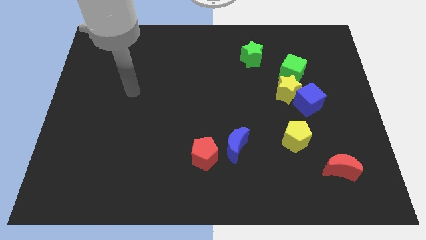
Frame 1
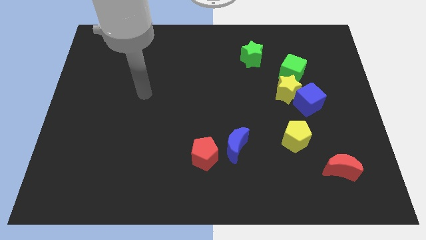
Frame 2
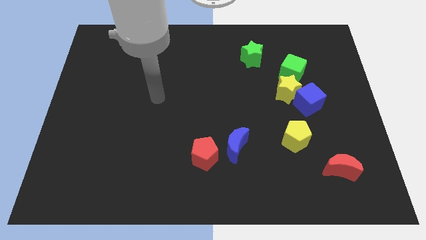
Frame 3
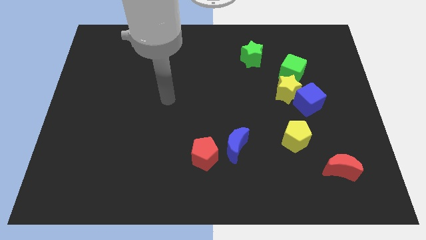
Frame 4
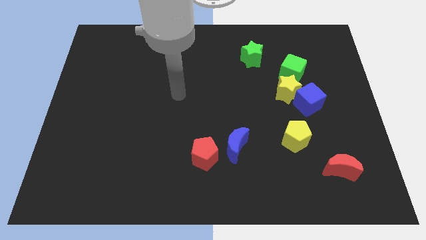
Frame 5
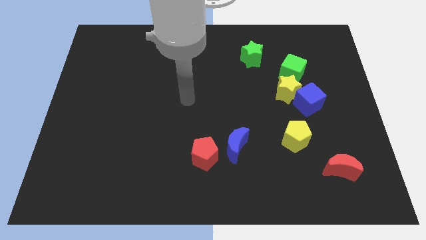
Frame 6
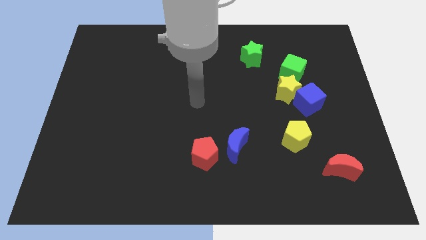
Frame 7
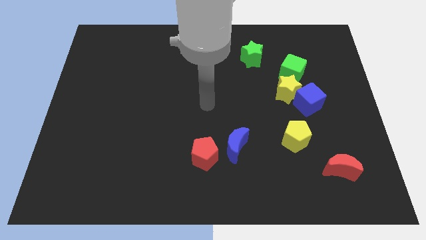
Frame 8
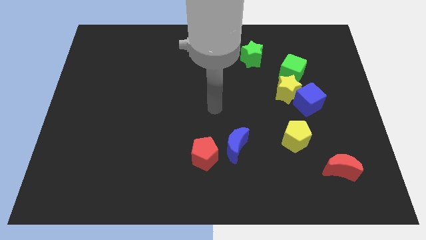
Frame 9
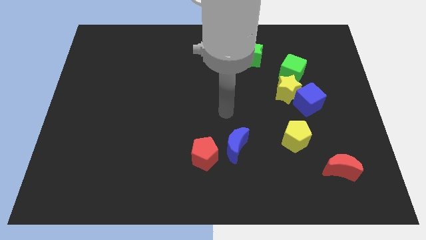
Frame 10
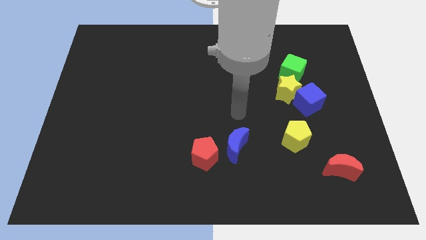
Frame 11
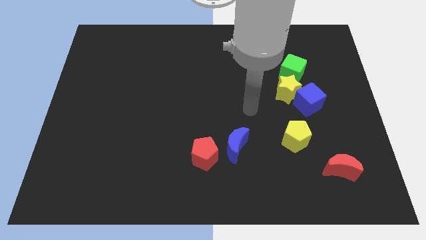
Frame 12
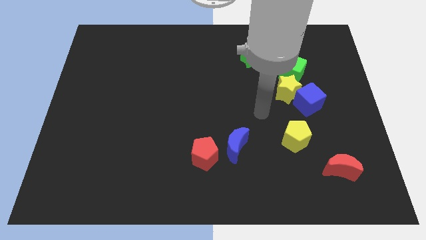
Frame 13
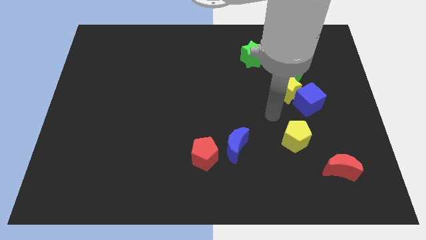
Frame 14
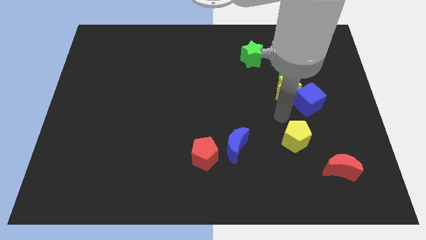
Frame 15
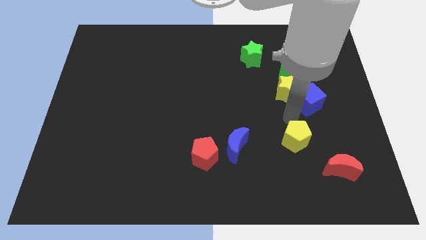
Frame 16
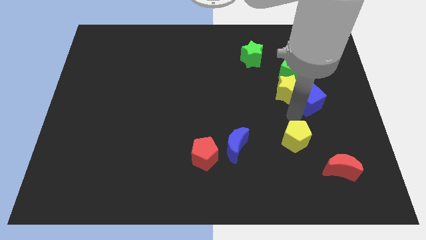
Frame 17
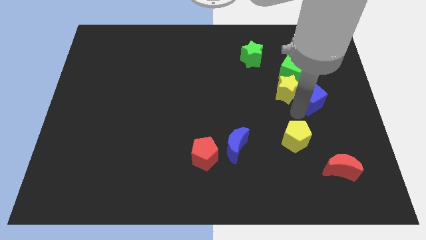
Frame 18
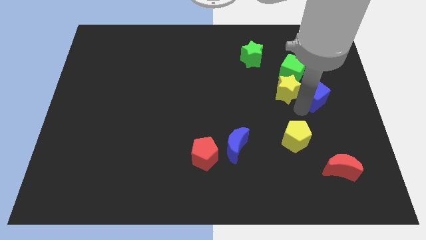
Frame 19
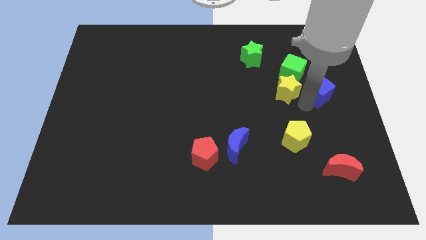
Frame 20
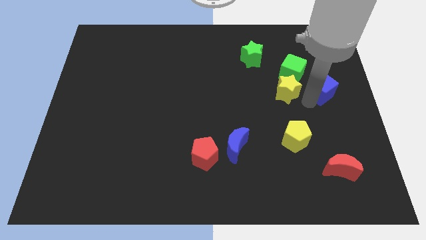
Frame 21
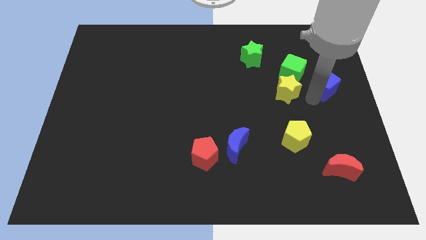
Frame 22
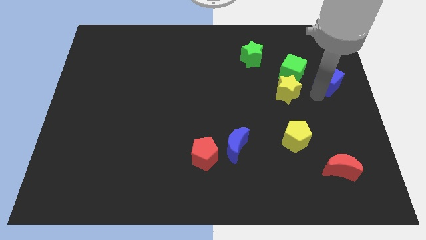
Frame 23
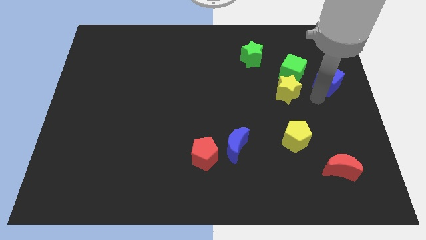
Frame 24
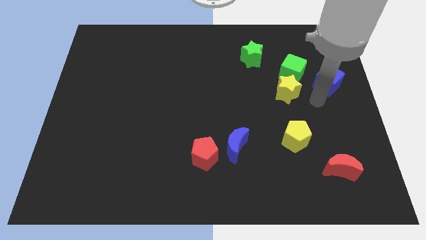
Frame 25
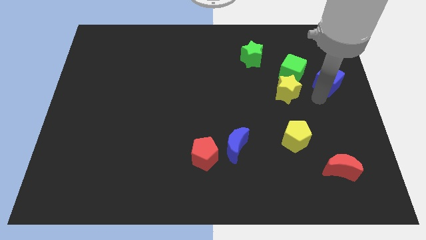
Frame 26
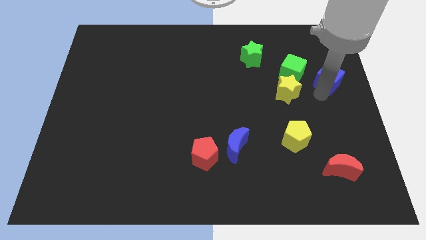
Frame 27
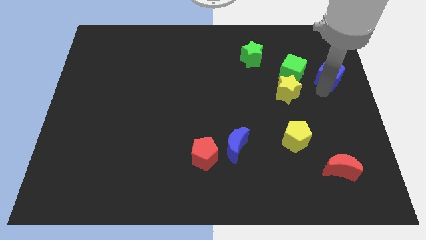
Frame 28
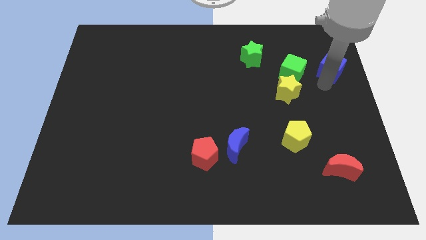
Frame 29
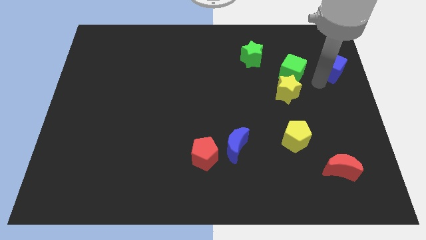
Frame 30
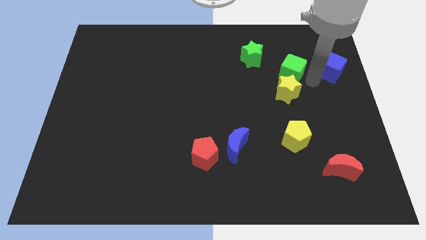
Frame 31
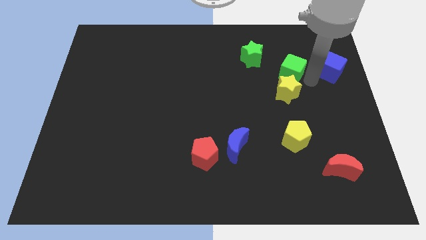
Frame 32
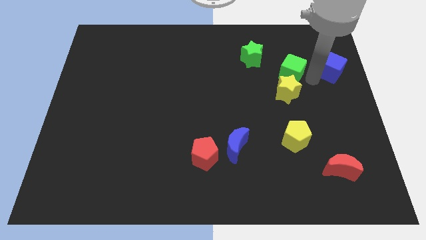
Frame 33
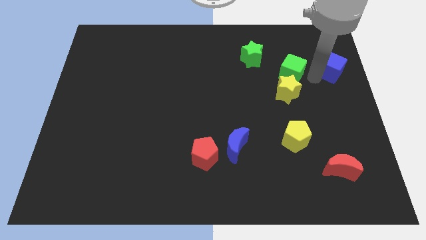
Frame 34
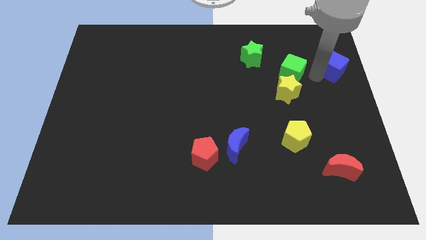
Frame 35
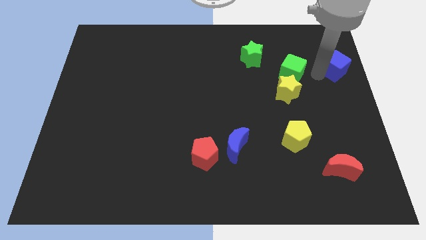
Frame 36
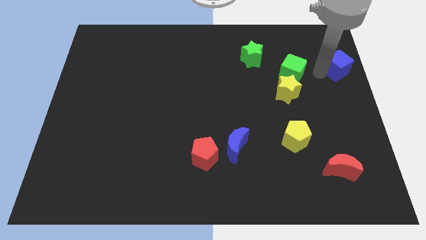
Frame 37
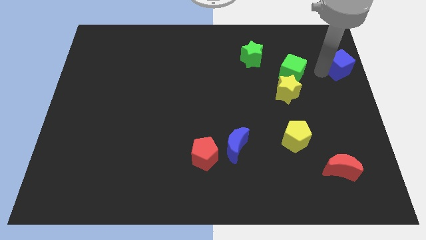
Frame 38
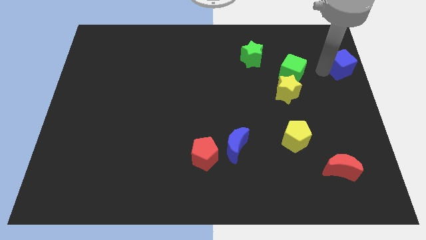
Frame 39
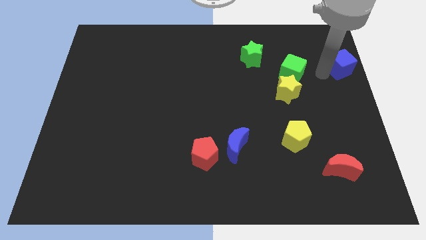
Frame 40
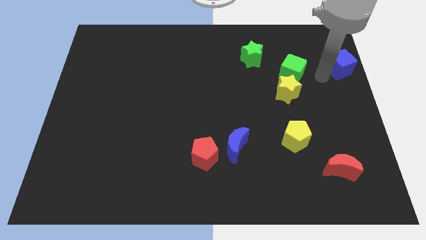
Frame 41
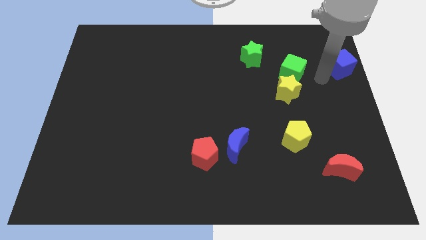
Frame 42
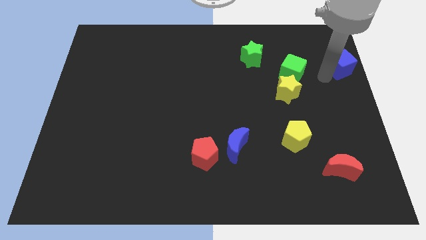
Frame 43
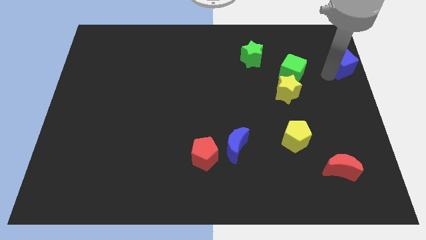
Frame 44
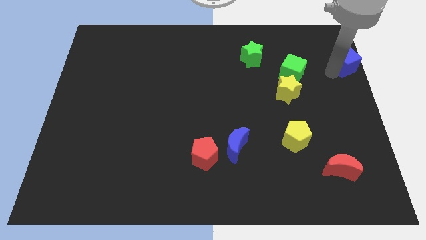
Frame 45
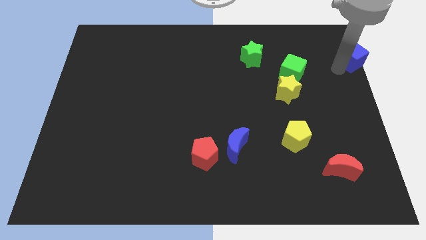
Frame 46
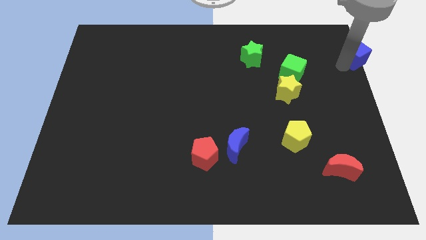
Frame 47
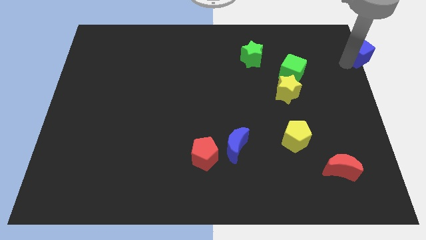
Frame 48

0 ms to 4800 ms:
slide the blue cube to the top right

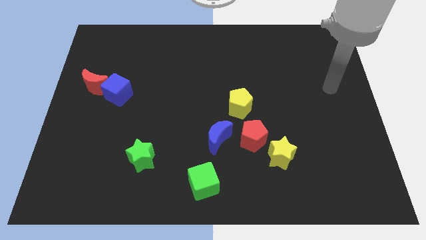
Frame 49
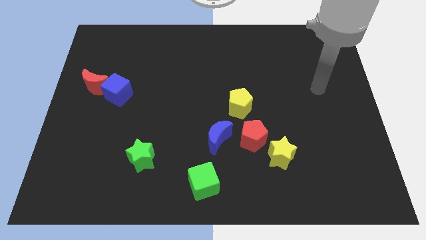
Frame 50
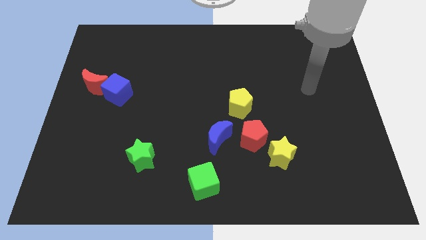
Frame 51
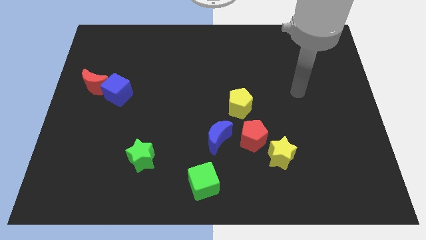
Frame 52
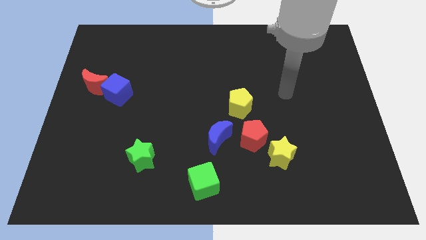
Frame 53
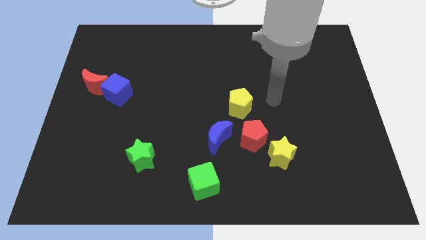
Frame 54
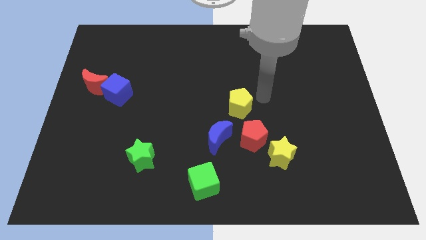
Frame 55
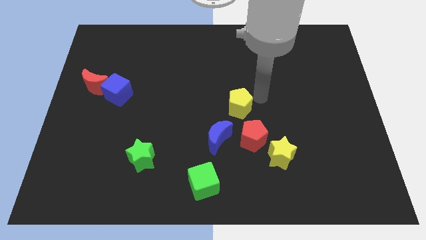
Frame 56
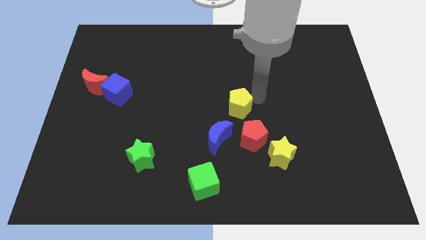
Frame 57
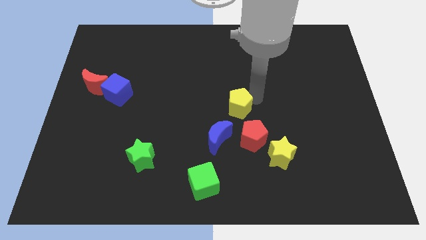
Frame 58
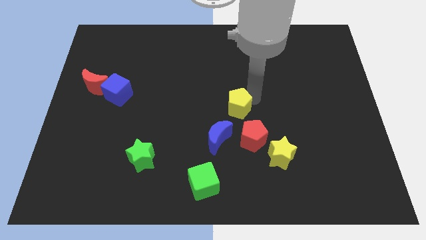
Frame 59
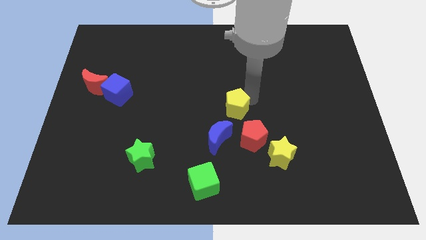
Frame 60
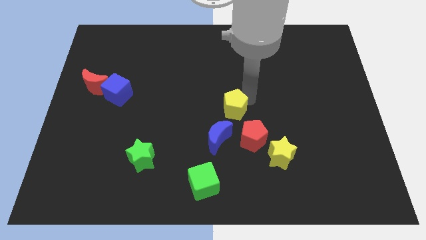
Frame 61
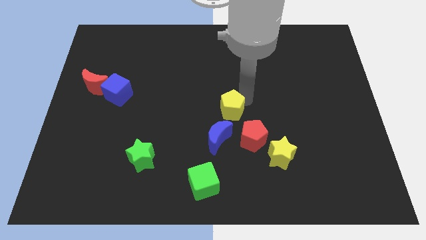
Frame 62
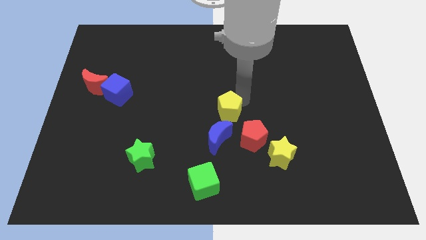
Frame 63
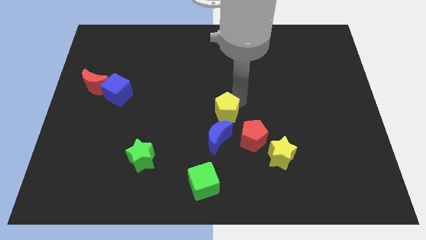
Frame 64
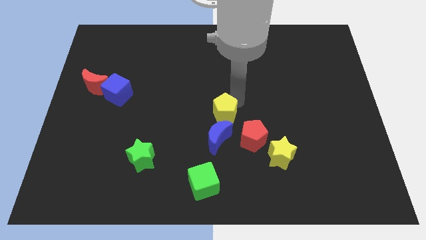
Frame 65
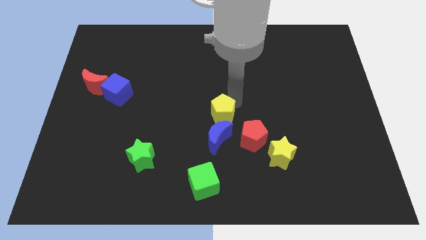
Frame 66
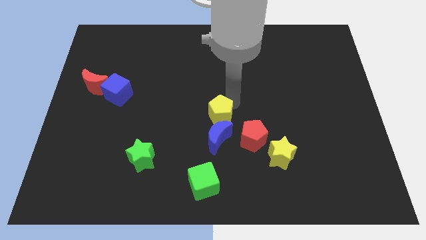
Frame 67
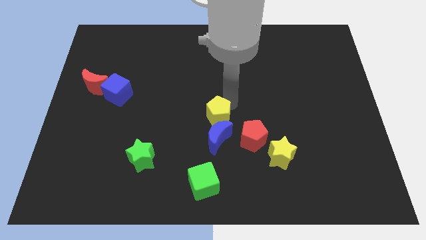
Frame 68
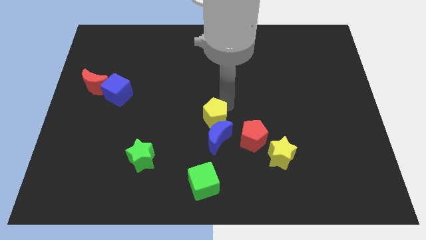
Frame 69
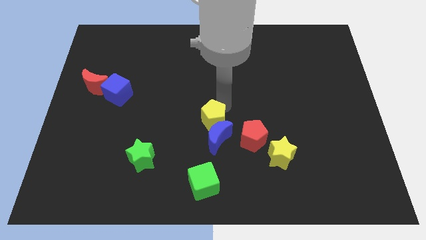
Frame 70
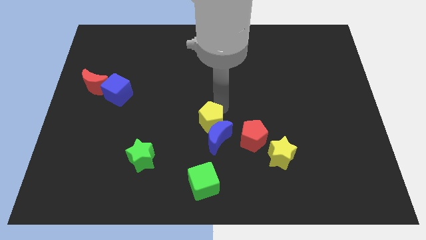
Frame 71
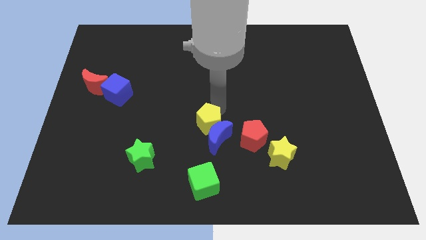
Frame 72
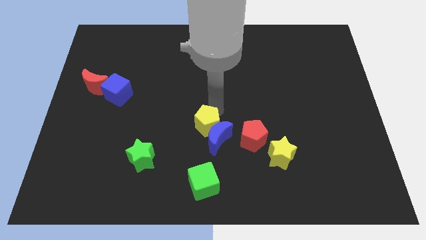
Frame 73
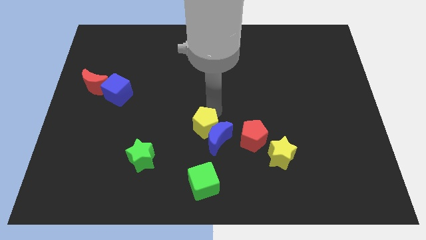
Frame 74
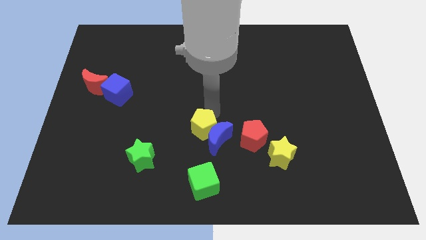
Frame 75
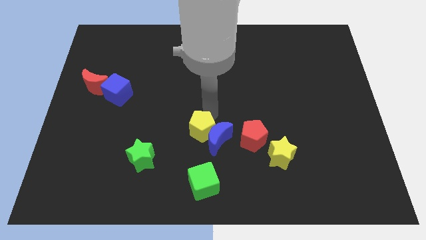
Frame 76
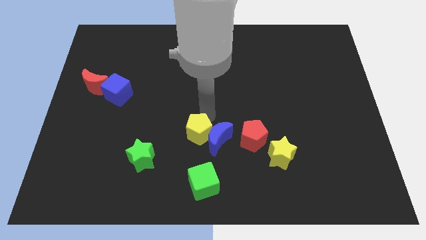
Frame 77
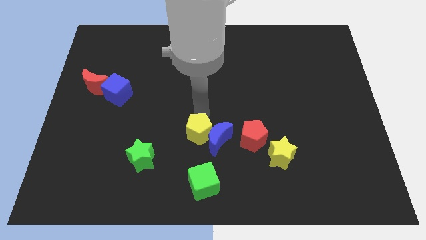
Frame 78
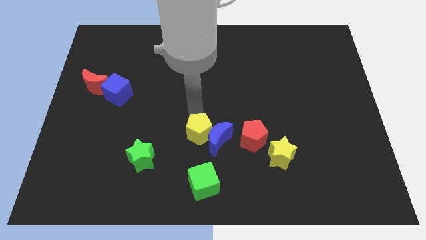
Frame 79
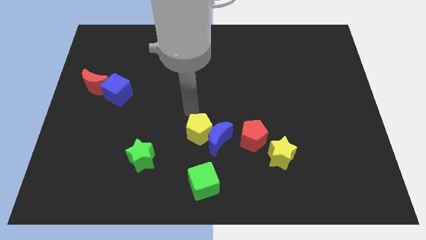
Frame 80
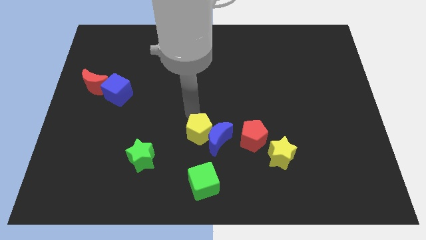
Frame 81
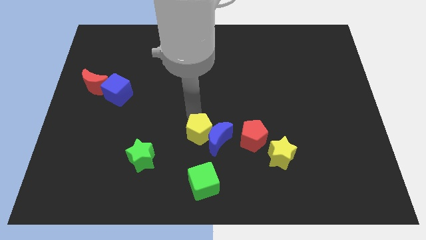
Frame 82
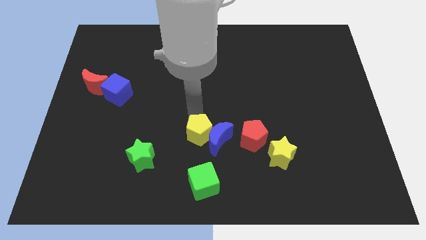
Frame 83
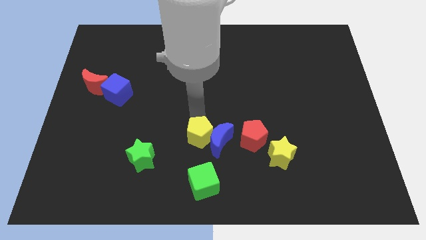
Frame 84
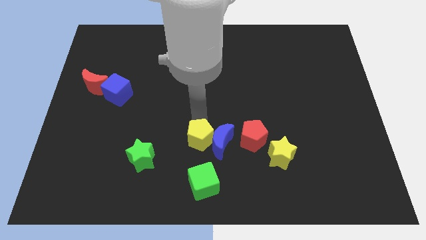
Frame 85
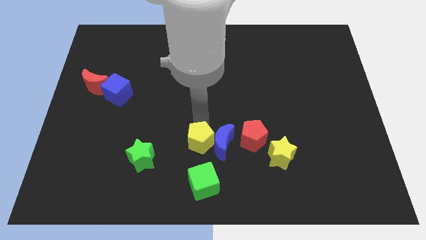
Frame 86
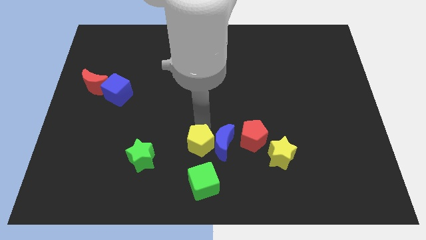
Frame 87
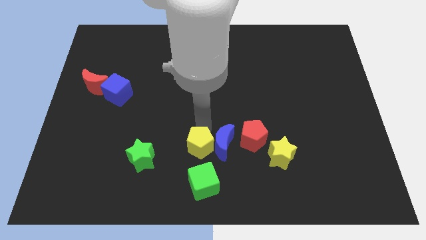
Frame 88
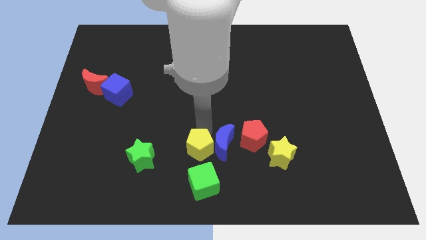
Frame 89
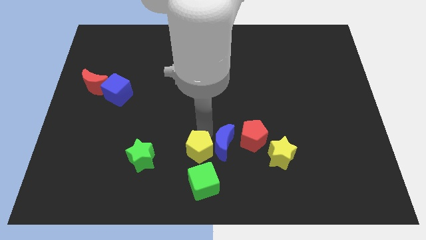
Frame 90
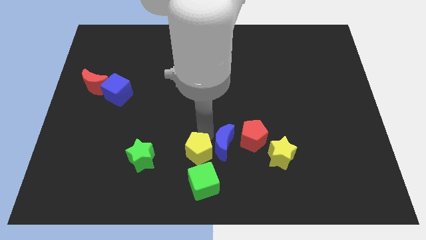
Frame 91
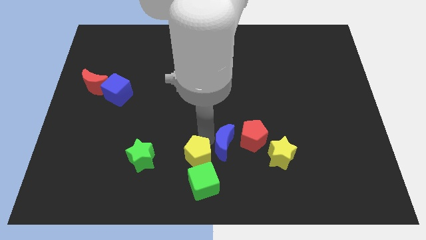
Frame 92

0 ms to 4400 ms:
move the yellow pentagon to the bottom
